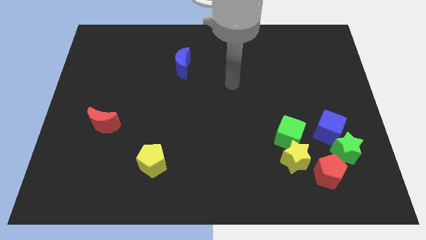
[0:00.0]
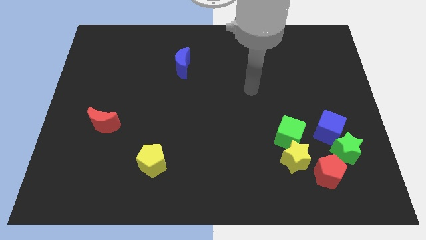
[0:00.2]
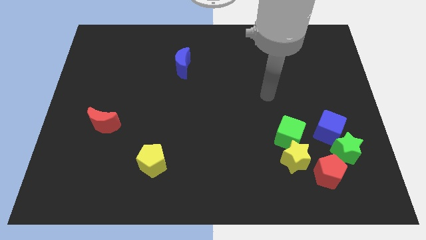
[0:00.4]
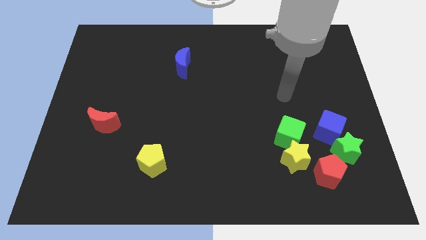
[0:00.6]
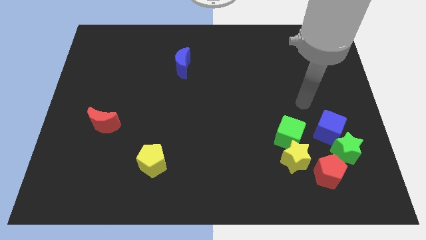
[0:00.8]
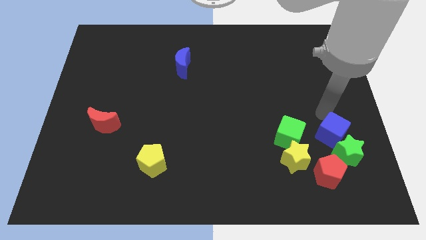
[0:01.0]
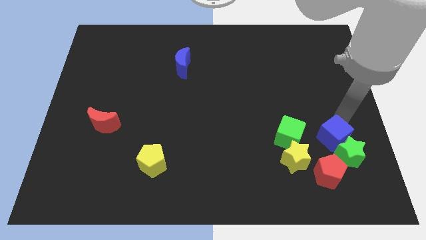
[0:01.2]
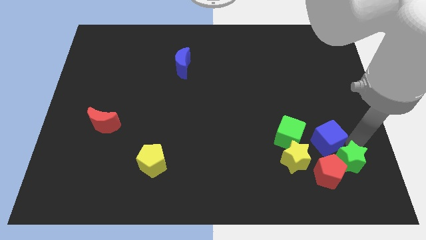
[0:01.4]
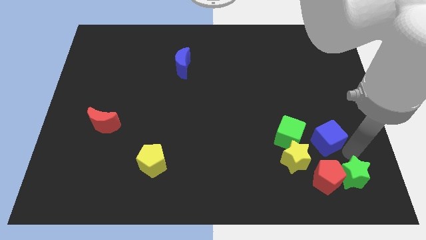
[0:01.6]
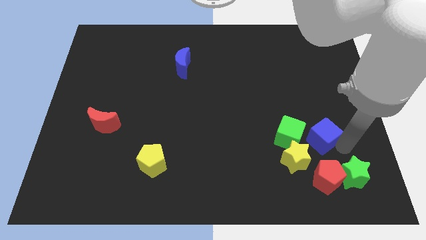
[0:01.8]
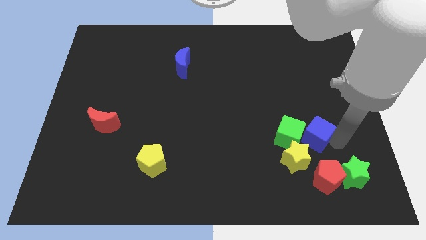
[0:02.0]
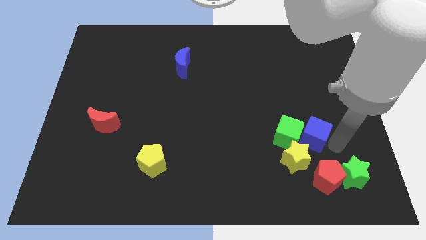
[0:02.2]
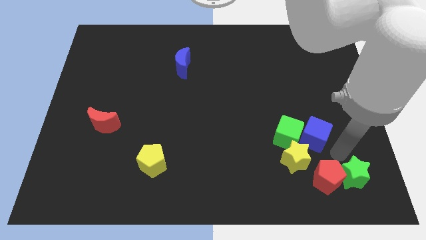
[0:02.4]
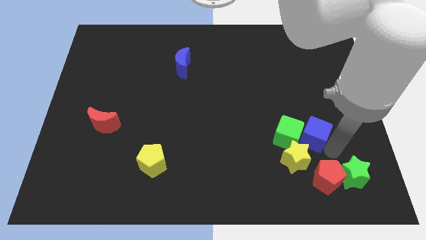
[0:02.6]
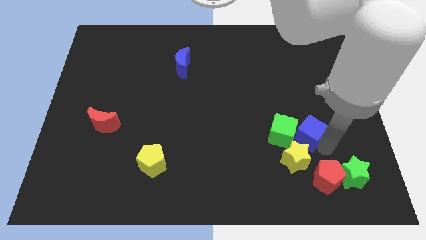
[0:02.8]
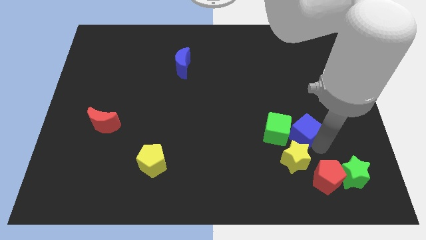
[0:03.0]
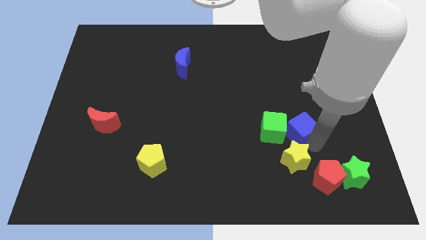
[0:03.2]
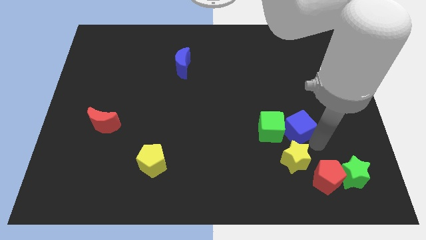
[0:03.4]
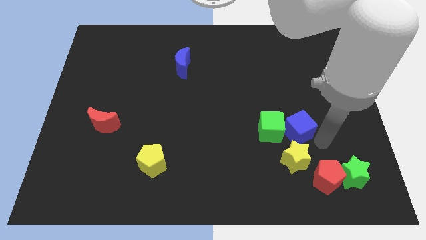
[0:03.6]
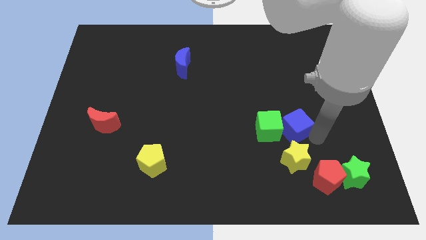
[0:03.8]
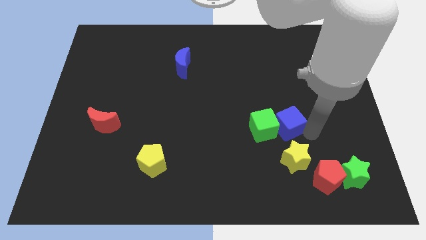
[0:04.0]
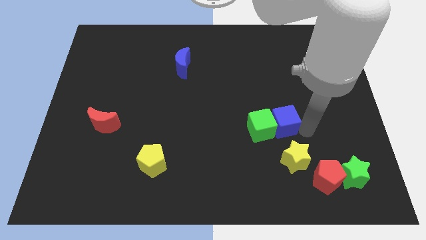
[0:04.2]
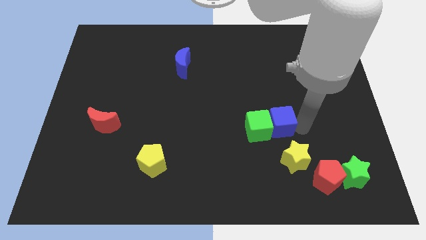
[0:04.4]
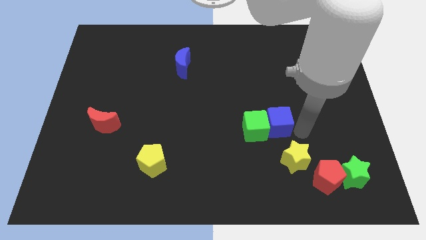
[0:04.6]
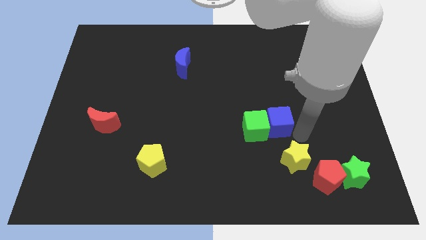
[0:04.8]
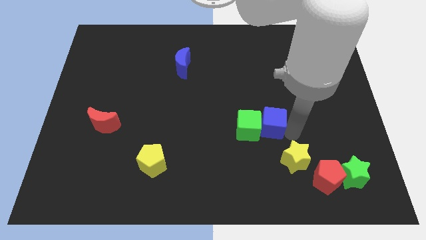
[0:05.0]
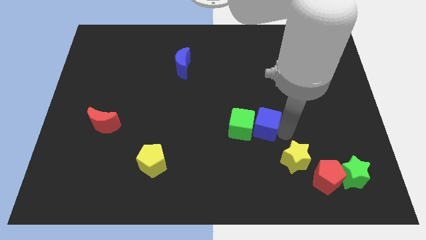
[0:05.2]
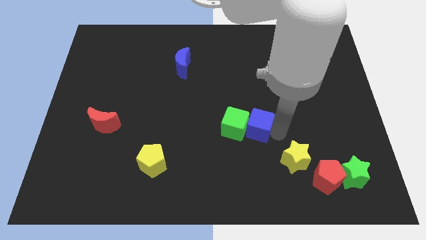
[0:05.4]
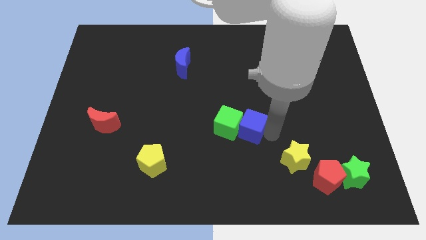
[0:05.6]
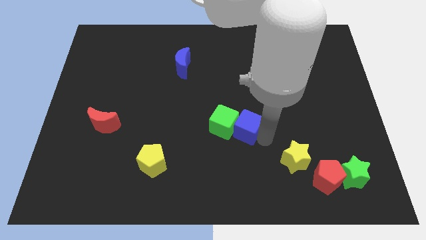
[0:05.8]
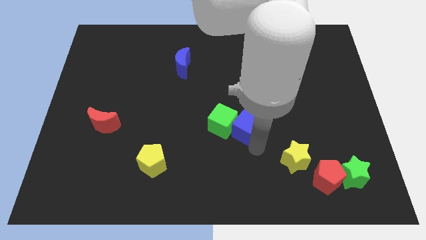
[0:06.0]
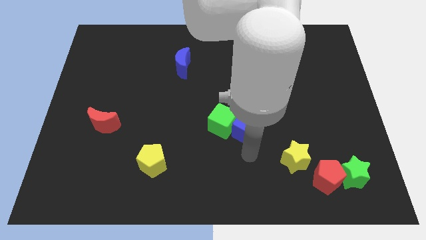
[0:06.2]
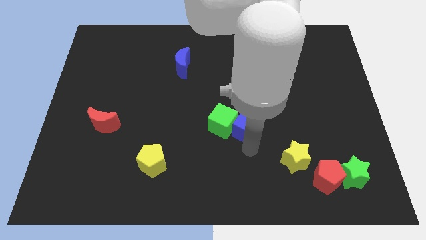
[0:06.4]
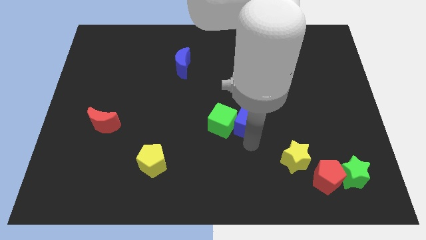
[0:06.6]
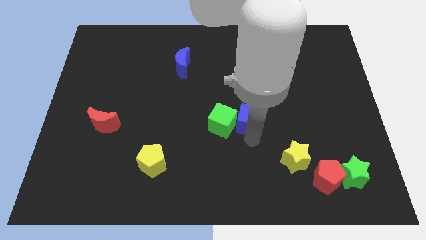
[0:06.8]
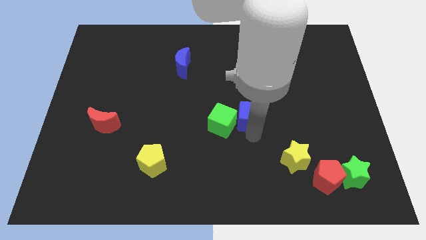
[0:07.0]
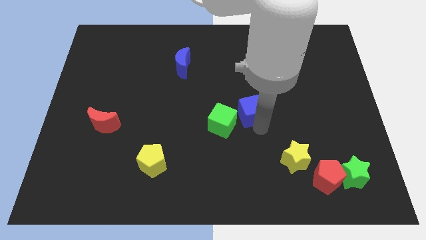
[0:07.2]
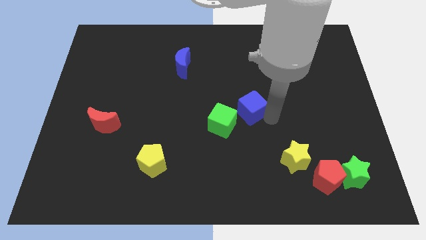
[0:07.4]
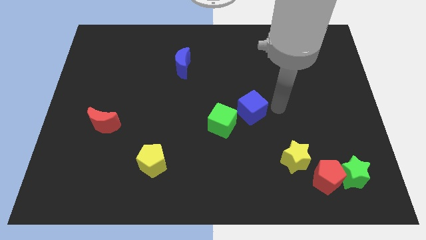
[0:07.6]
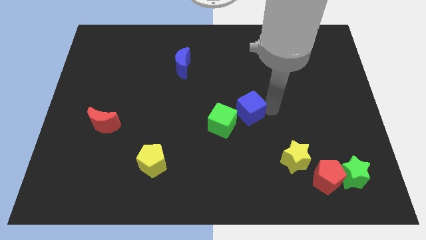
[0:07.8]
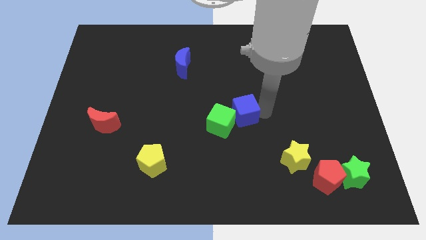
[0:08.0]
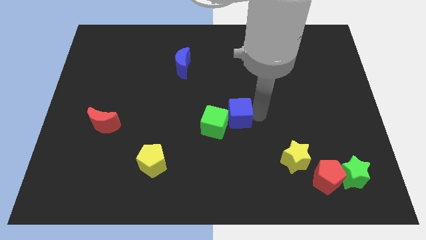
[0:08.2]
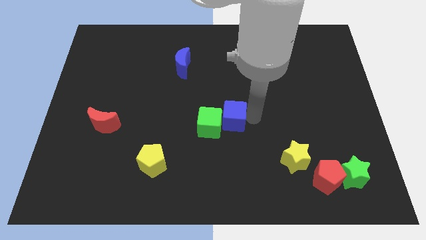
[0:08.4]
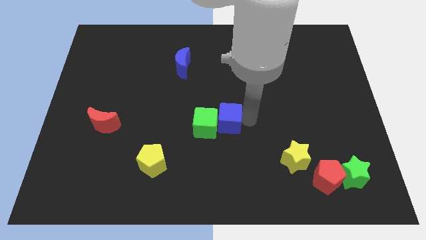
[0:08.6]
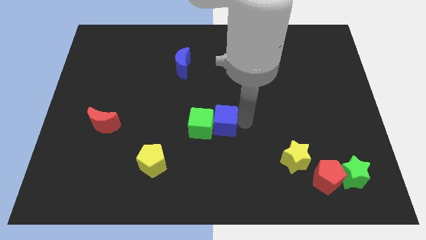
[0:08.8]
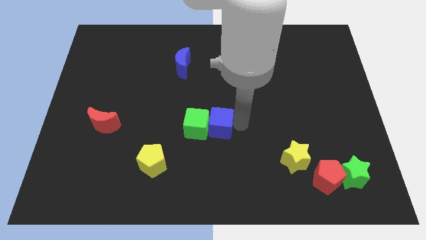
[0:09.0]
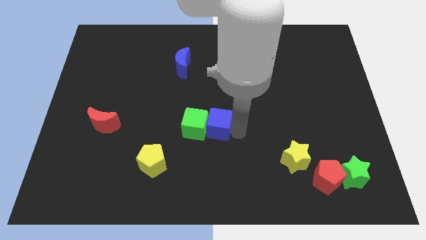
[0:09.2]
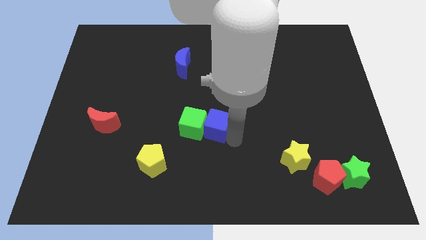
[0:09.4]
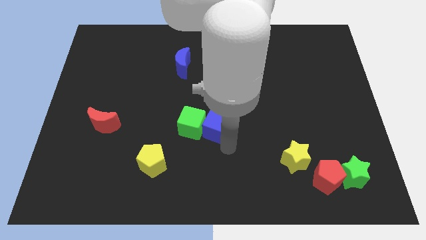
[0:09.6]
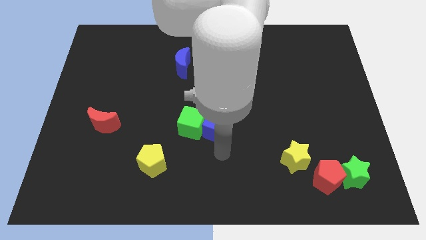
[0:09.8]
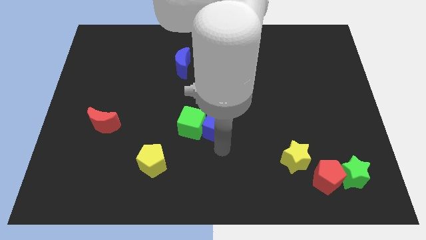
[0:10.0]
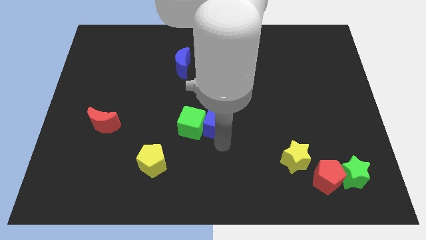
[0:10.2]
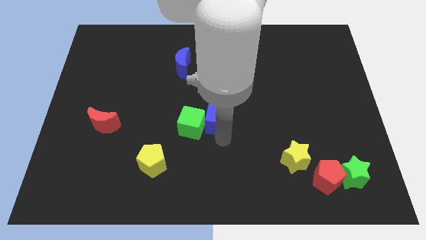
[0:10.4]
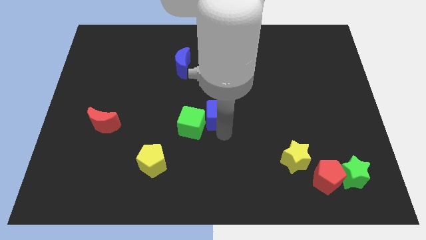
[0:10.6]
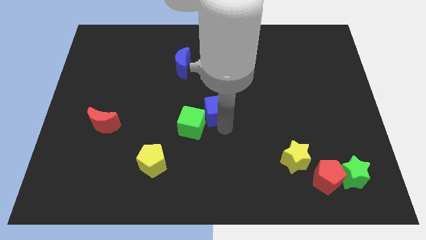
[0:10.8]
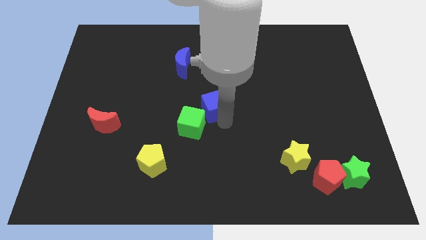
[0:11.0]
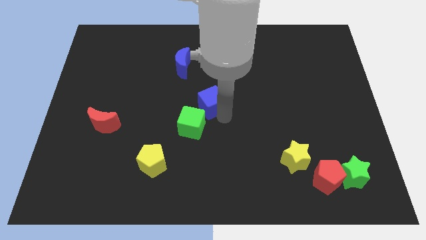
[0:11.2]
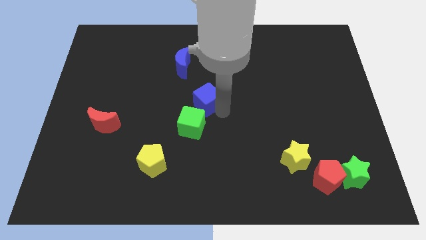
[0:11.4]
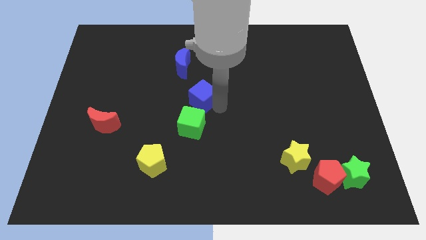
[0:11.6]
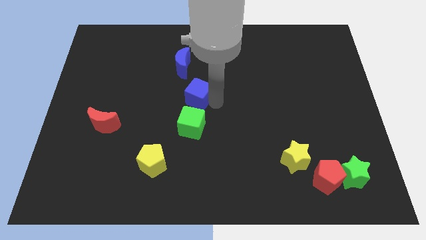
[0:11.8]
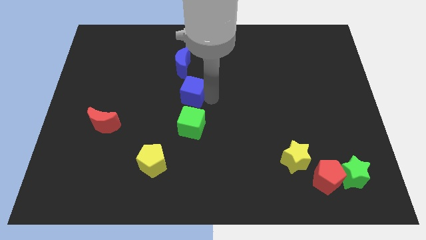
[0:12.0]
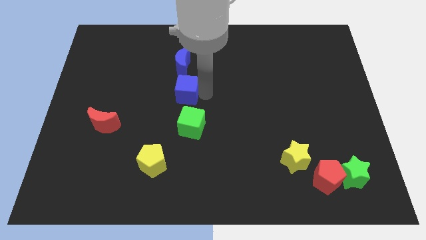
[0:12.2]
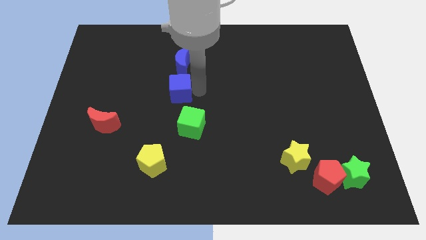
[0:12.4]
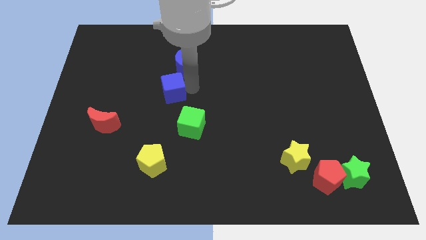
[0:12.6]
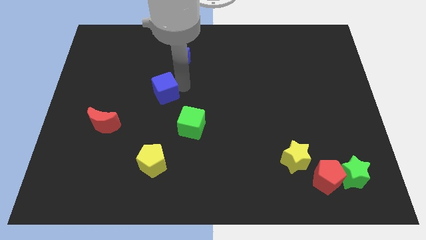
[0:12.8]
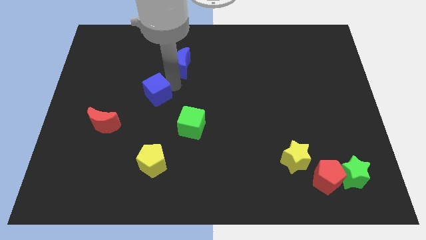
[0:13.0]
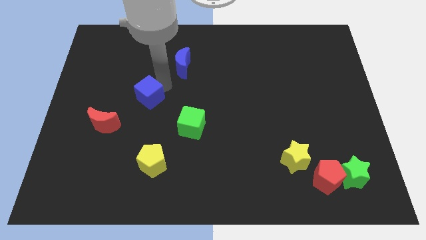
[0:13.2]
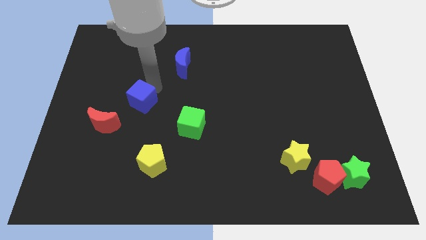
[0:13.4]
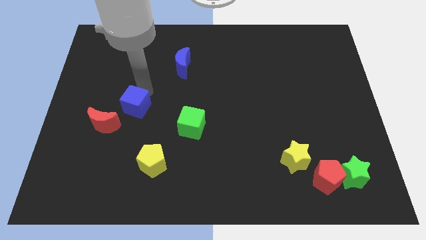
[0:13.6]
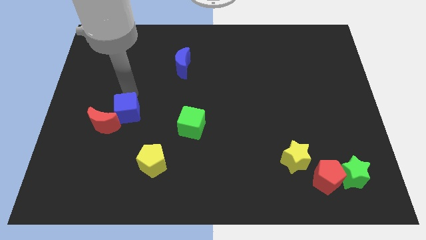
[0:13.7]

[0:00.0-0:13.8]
put the blue cube right of the red moon
